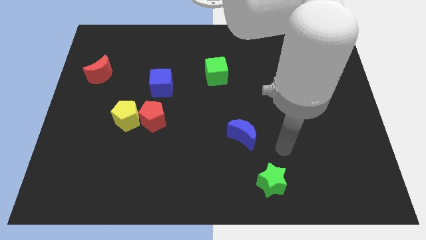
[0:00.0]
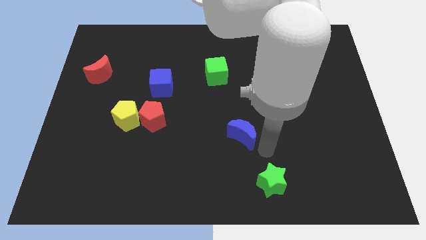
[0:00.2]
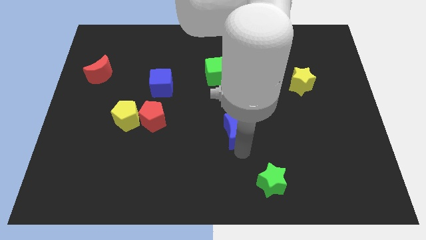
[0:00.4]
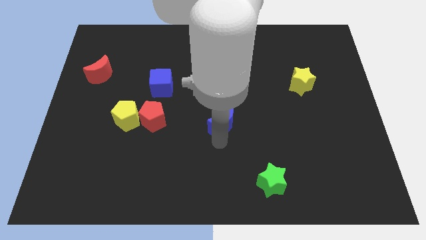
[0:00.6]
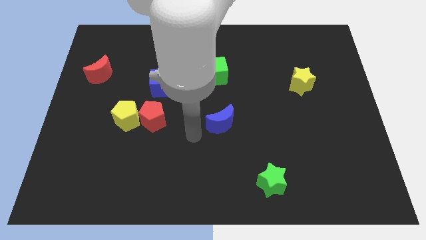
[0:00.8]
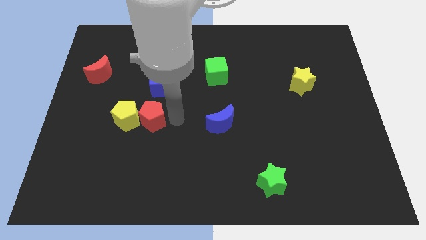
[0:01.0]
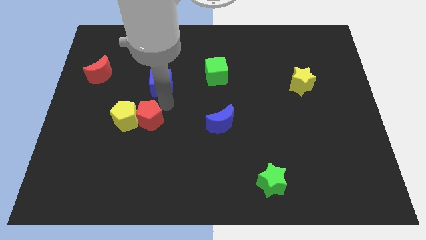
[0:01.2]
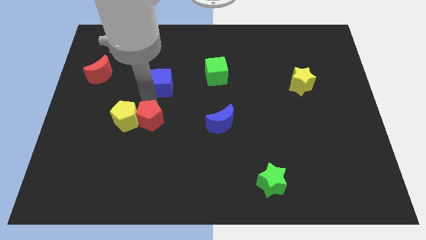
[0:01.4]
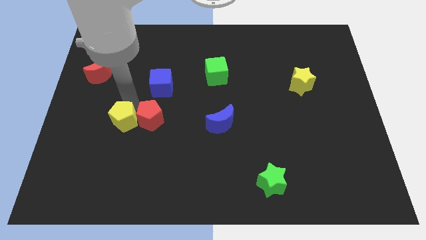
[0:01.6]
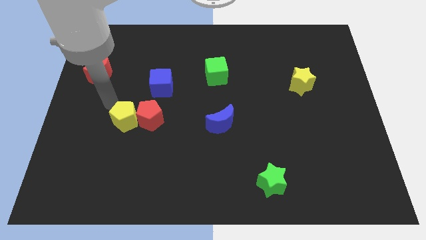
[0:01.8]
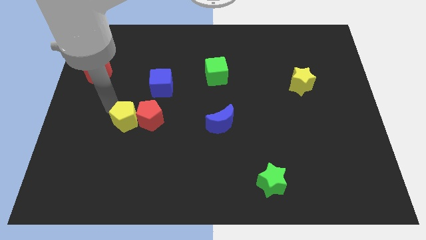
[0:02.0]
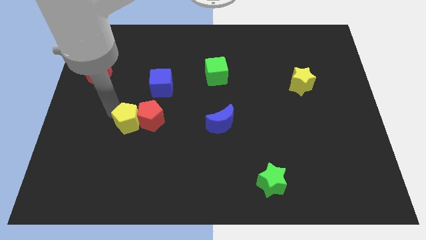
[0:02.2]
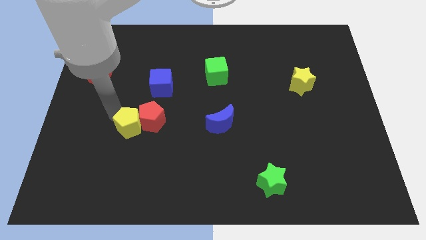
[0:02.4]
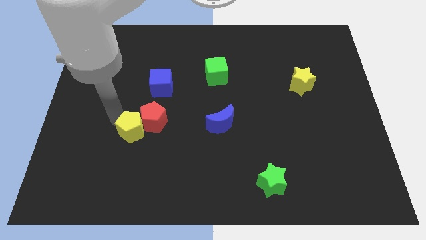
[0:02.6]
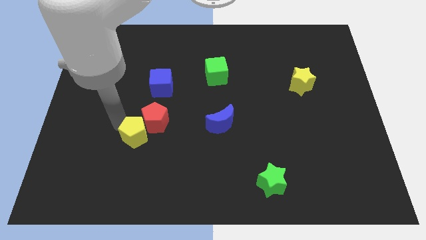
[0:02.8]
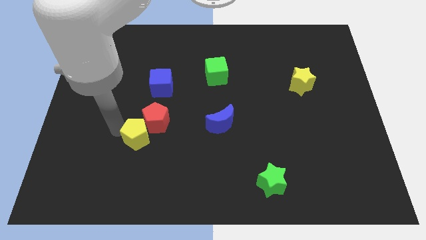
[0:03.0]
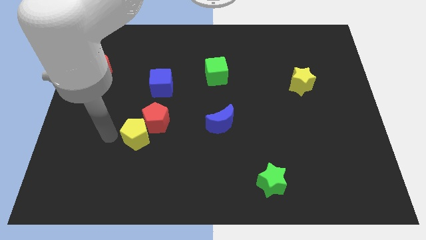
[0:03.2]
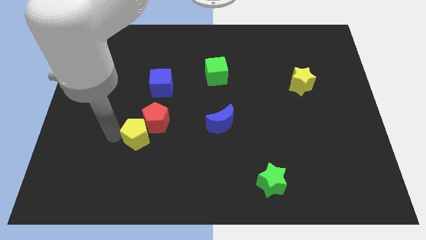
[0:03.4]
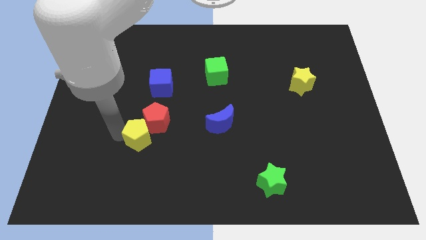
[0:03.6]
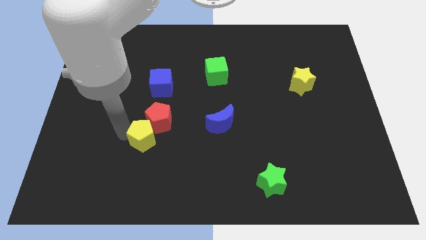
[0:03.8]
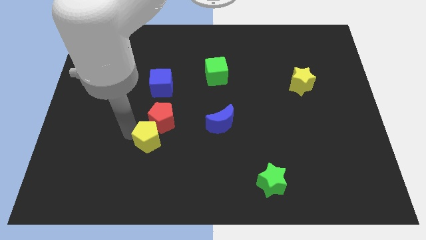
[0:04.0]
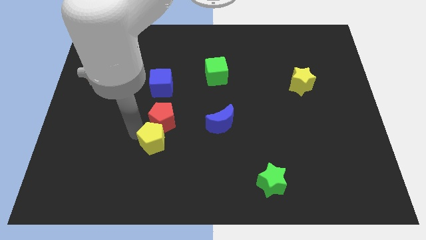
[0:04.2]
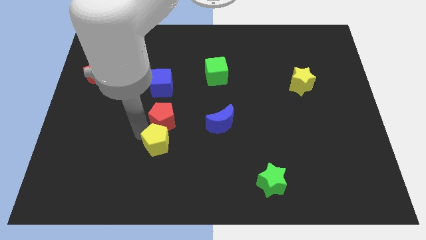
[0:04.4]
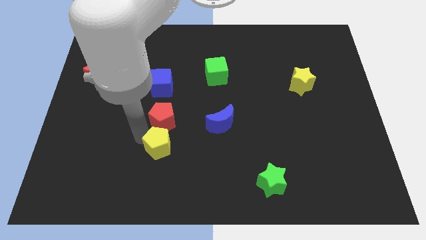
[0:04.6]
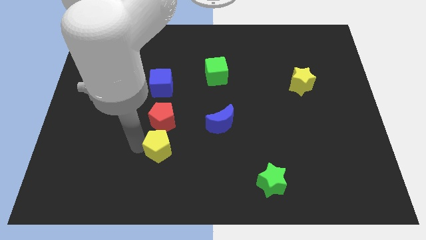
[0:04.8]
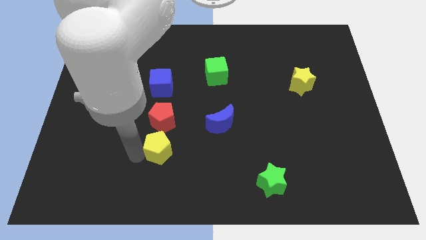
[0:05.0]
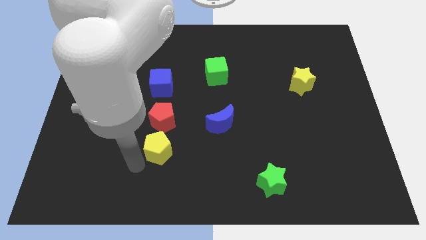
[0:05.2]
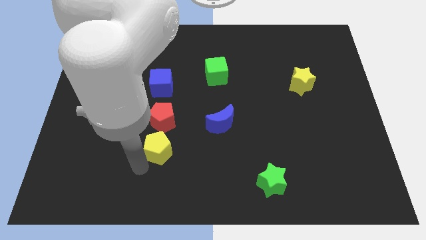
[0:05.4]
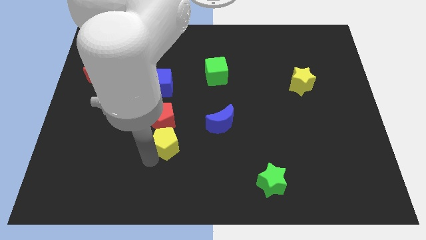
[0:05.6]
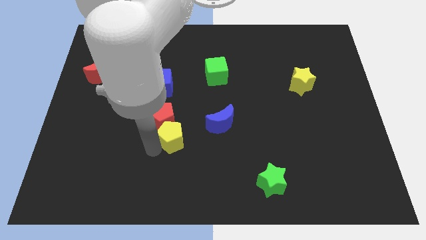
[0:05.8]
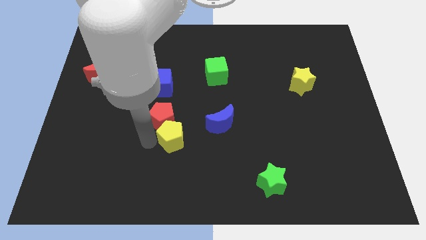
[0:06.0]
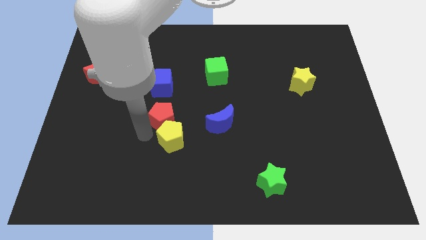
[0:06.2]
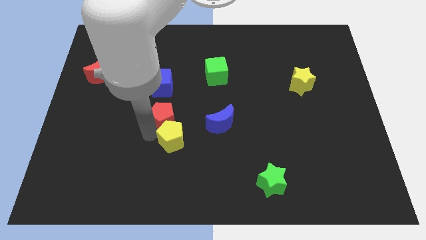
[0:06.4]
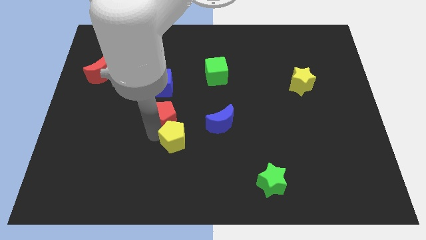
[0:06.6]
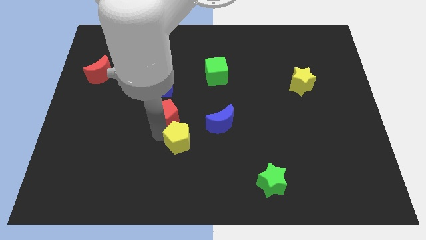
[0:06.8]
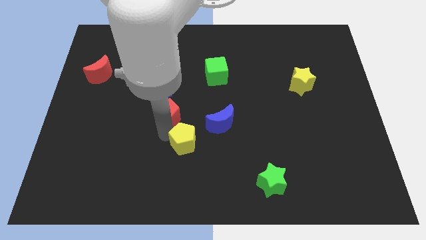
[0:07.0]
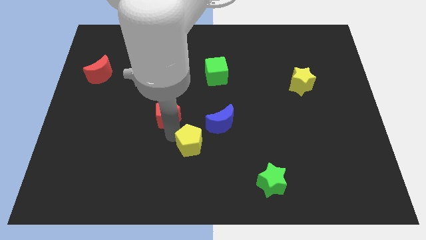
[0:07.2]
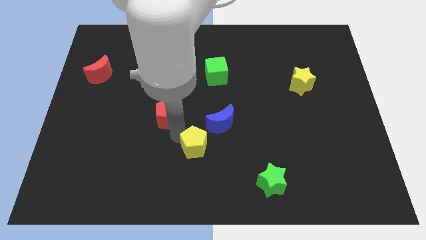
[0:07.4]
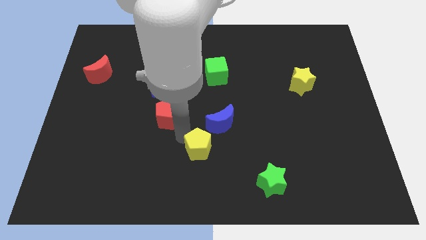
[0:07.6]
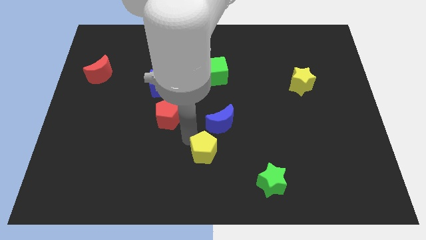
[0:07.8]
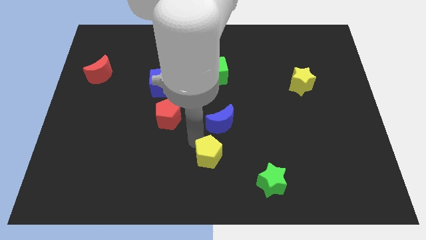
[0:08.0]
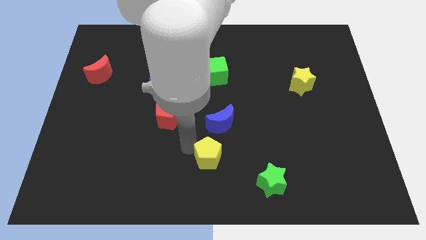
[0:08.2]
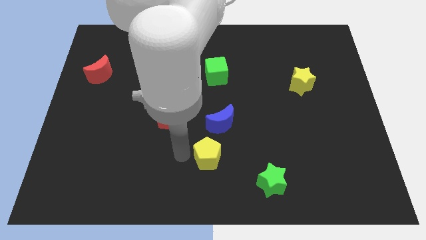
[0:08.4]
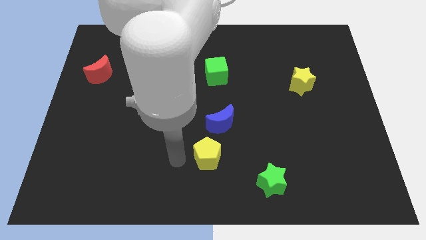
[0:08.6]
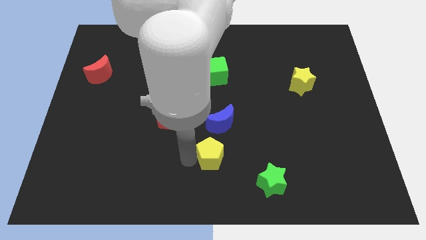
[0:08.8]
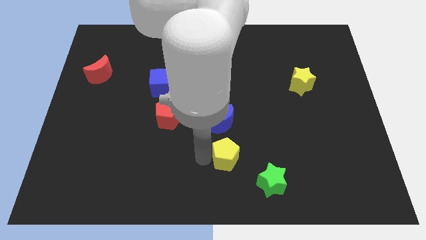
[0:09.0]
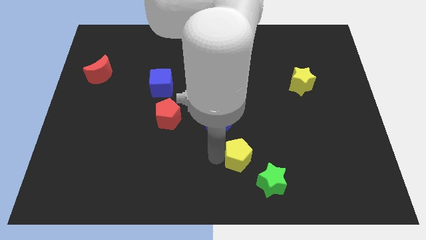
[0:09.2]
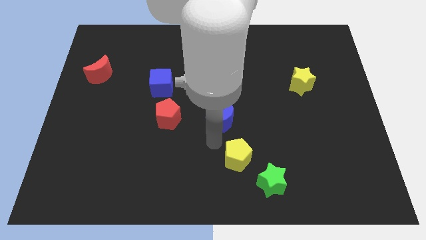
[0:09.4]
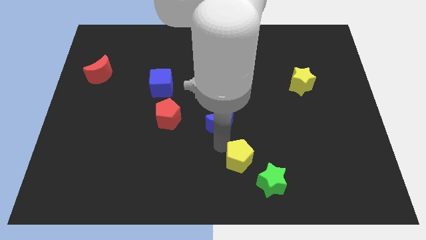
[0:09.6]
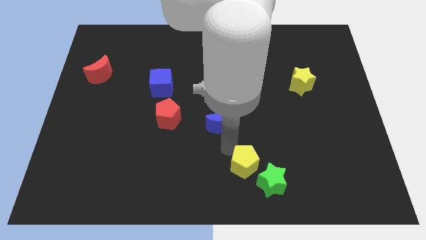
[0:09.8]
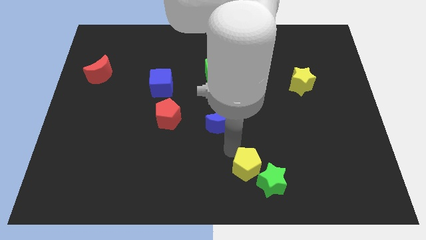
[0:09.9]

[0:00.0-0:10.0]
slide the yellow pentagon to the green star

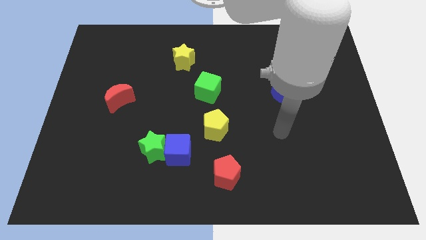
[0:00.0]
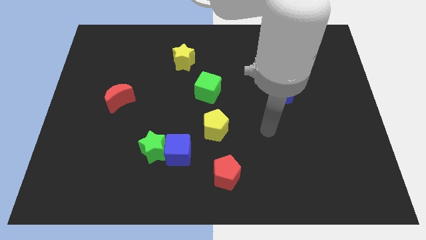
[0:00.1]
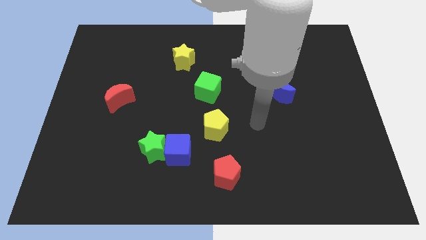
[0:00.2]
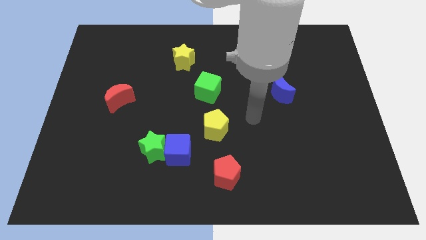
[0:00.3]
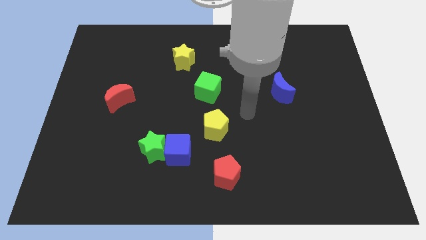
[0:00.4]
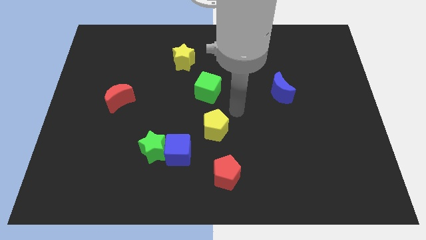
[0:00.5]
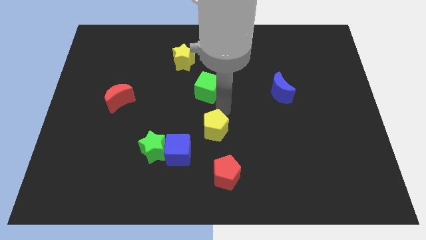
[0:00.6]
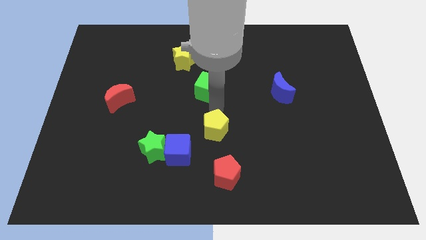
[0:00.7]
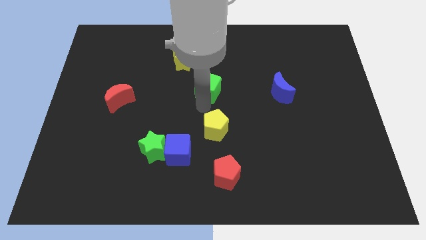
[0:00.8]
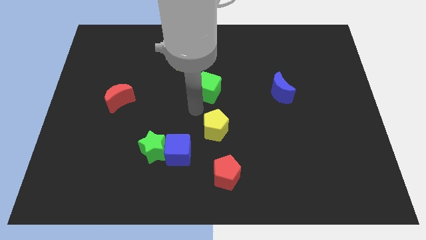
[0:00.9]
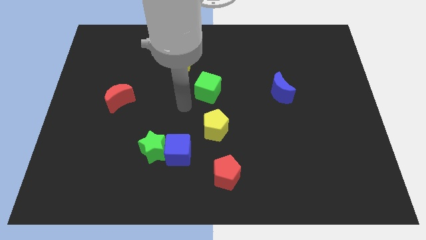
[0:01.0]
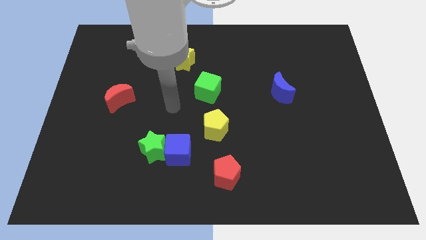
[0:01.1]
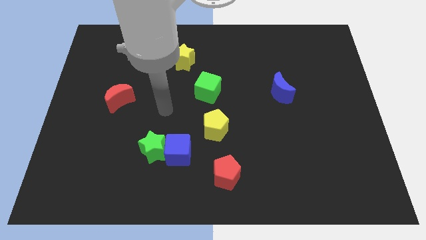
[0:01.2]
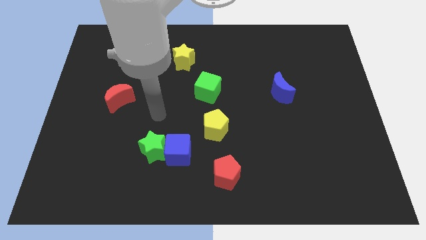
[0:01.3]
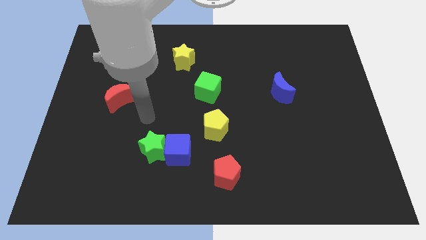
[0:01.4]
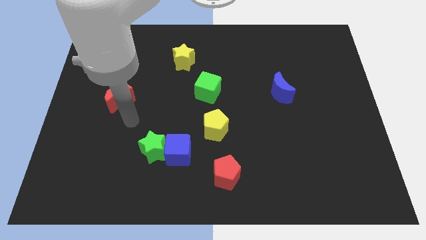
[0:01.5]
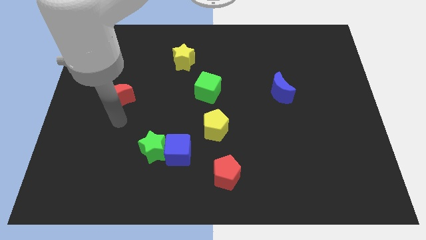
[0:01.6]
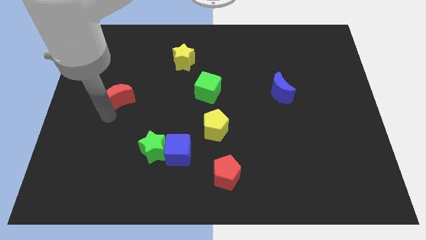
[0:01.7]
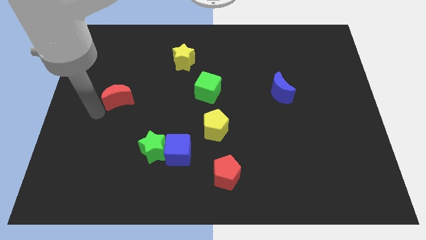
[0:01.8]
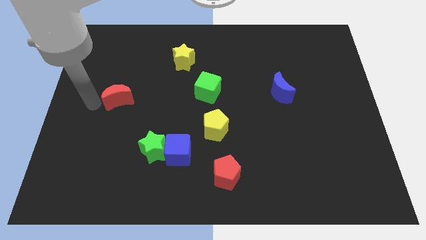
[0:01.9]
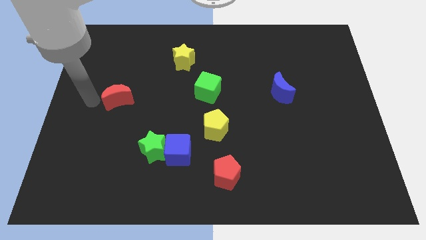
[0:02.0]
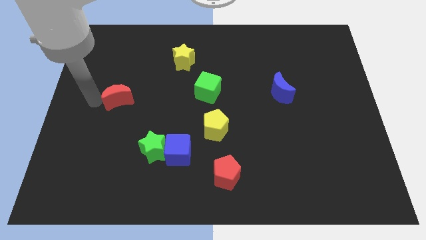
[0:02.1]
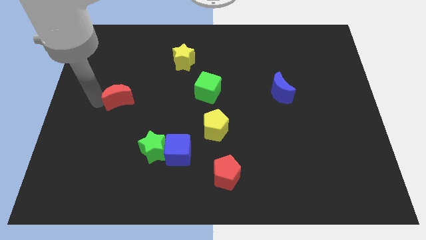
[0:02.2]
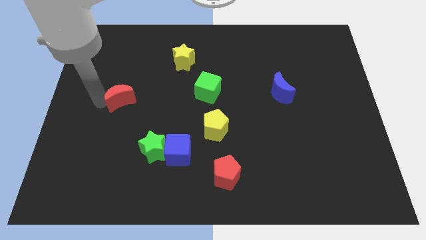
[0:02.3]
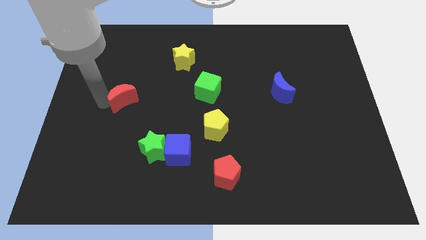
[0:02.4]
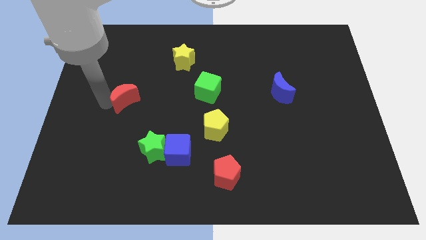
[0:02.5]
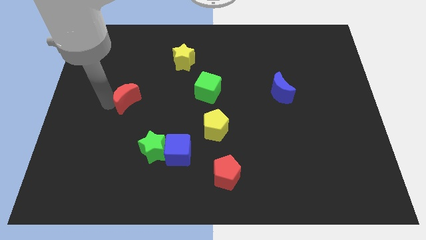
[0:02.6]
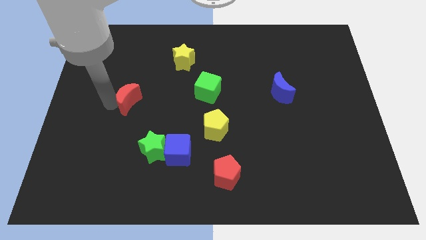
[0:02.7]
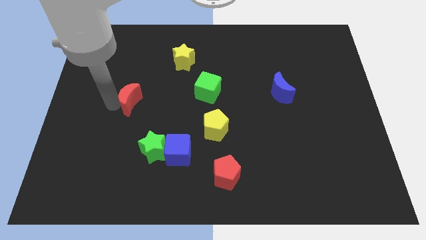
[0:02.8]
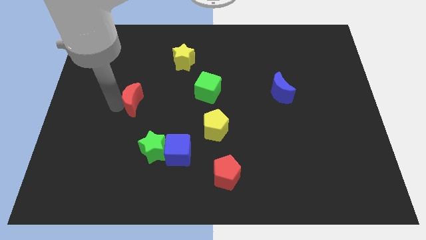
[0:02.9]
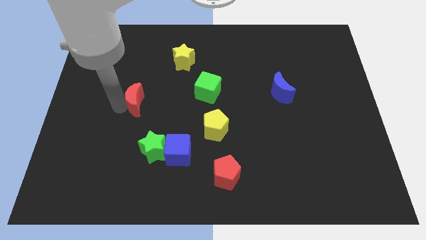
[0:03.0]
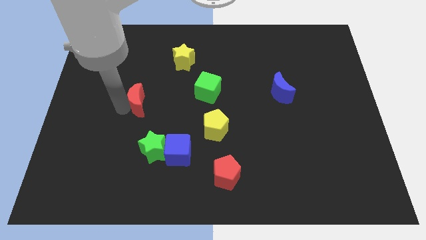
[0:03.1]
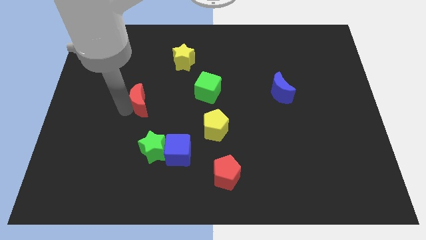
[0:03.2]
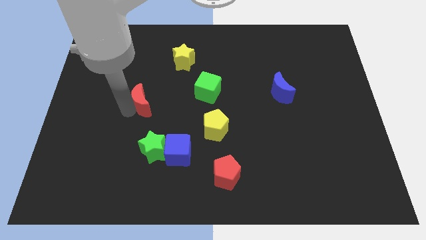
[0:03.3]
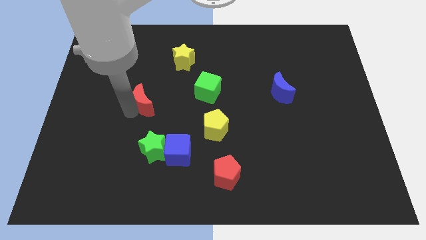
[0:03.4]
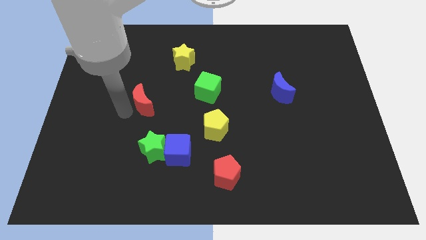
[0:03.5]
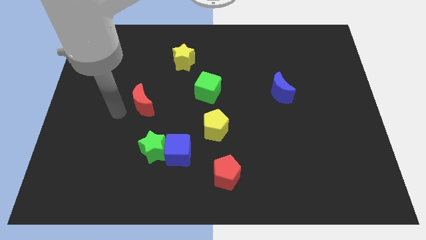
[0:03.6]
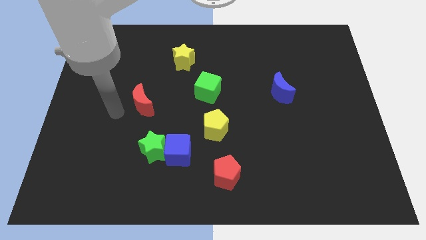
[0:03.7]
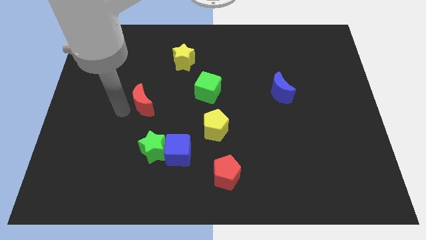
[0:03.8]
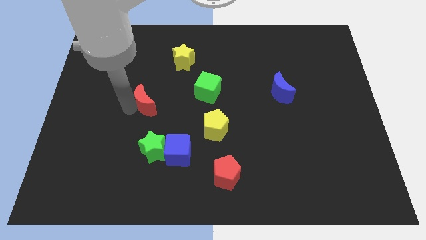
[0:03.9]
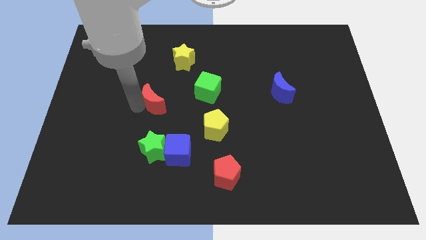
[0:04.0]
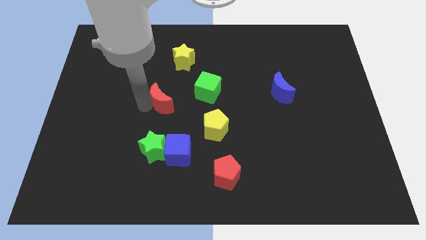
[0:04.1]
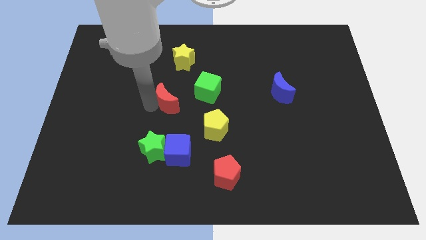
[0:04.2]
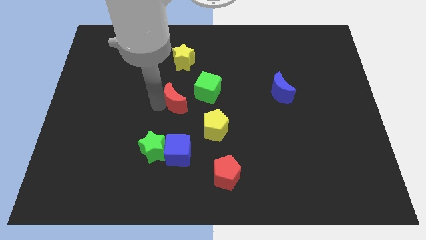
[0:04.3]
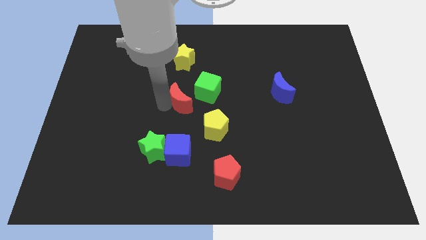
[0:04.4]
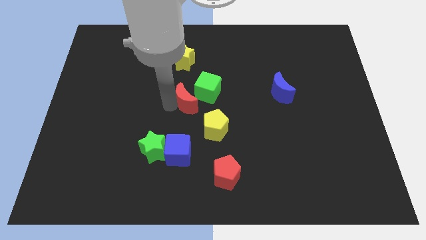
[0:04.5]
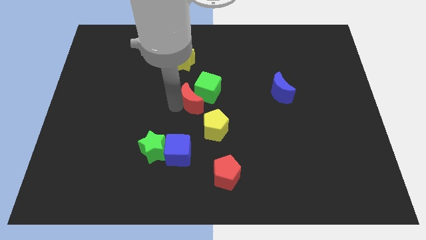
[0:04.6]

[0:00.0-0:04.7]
put the red moon towards the green cube
